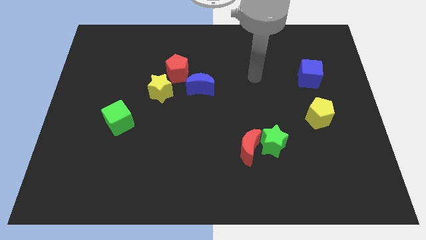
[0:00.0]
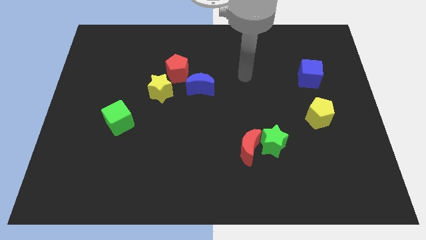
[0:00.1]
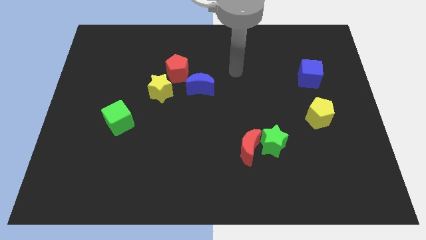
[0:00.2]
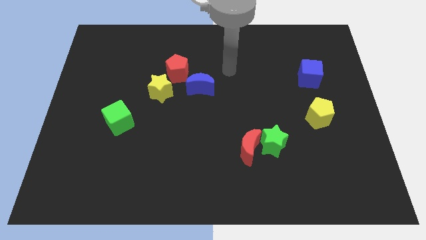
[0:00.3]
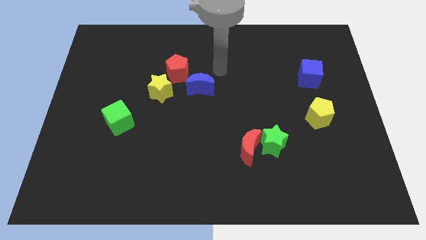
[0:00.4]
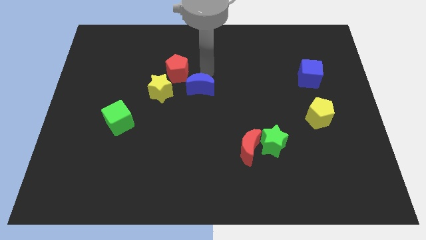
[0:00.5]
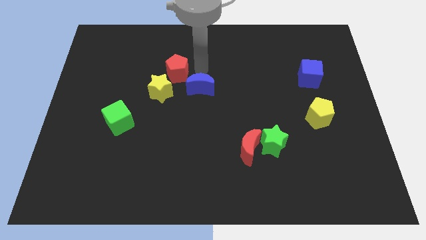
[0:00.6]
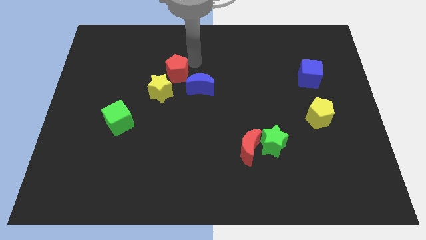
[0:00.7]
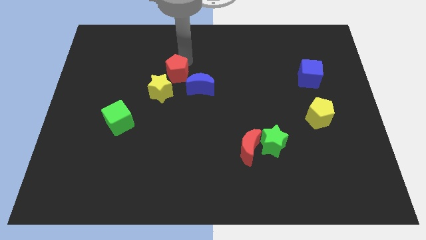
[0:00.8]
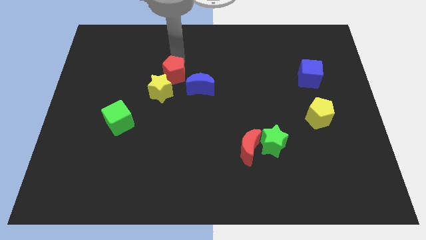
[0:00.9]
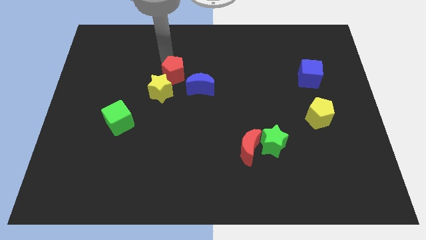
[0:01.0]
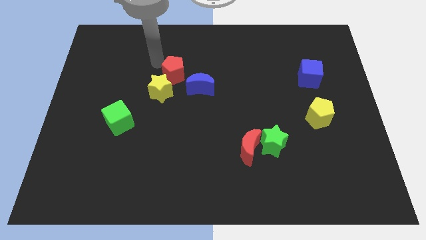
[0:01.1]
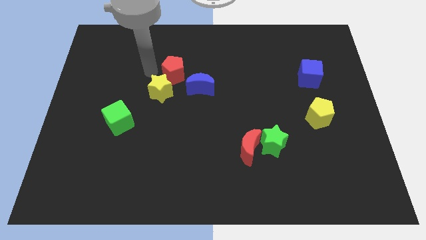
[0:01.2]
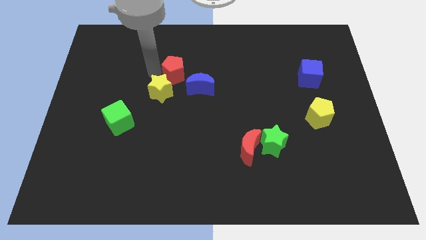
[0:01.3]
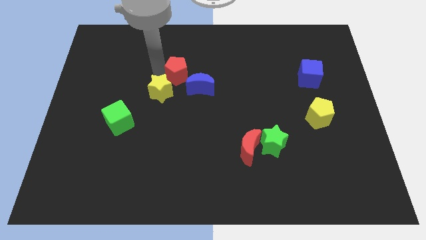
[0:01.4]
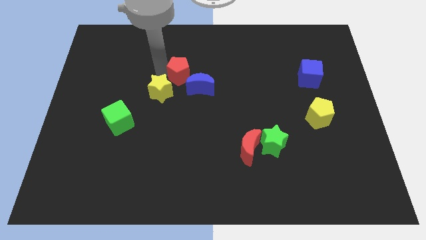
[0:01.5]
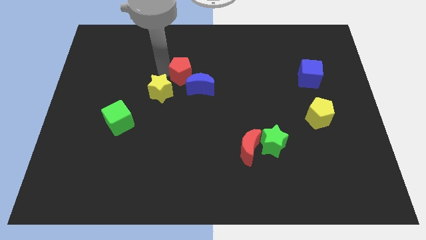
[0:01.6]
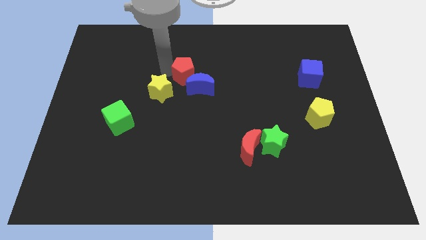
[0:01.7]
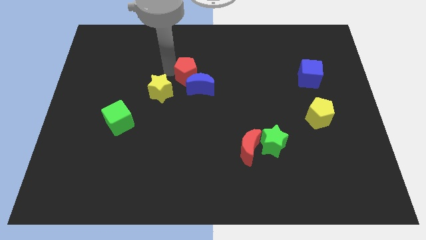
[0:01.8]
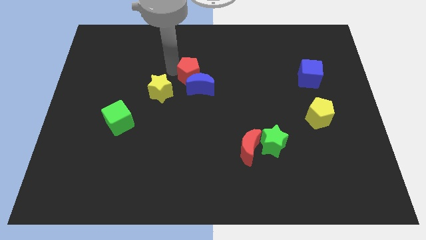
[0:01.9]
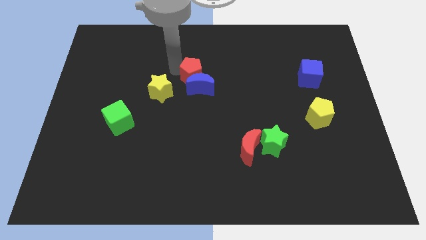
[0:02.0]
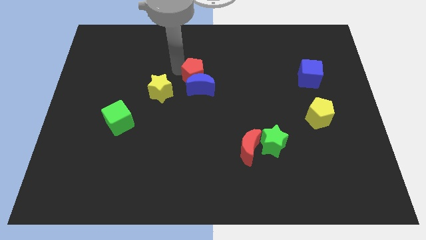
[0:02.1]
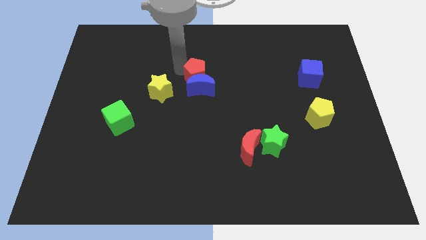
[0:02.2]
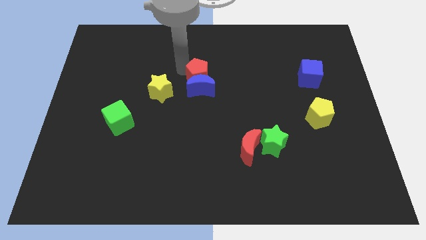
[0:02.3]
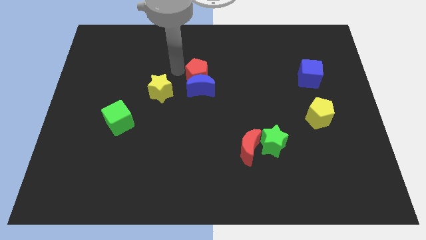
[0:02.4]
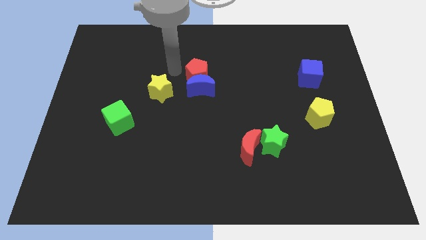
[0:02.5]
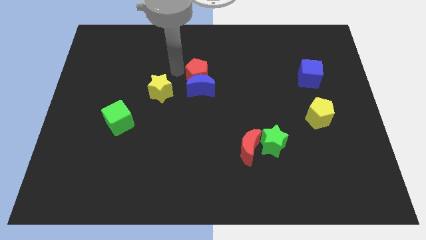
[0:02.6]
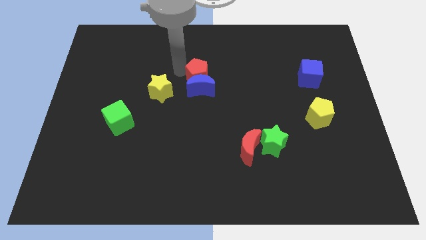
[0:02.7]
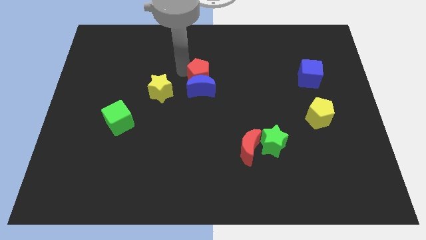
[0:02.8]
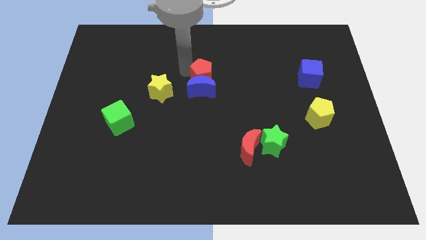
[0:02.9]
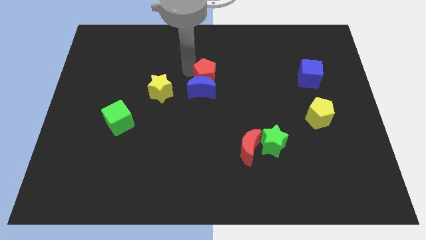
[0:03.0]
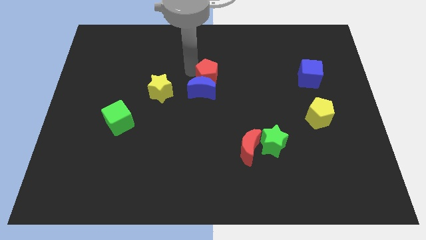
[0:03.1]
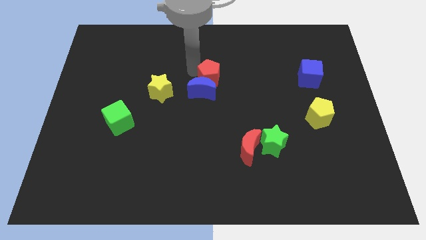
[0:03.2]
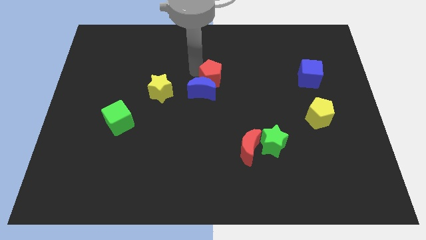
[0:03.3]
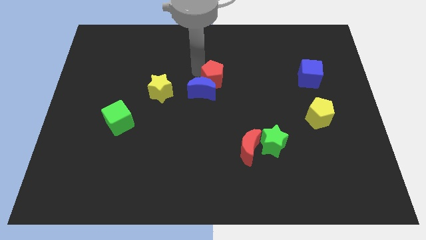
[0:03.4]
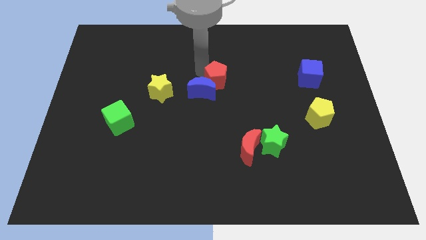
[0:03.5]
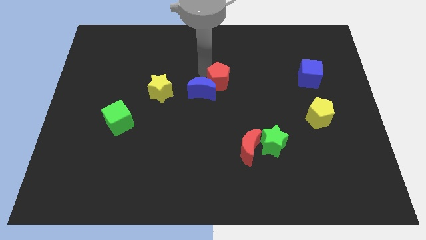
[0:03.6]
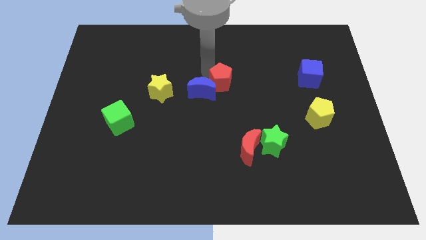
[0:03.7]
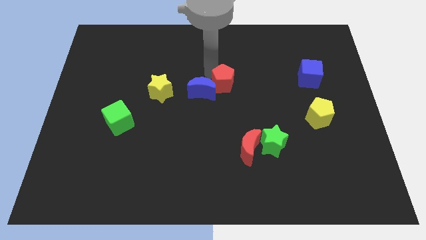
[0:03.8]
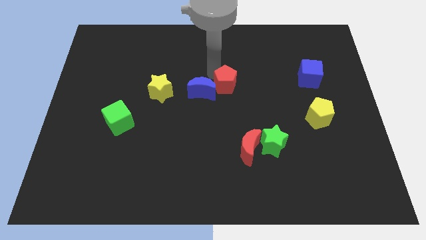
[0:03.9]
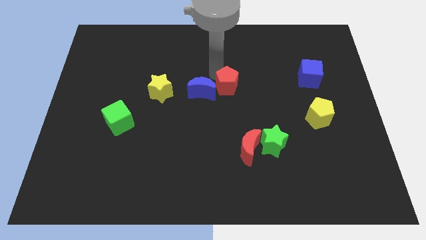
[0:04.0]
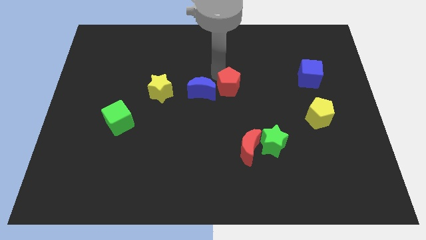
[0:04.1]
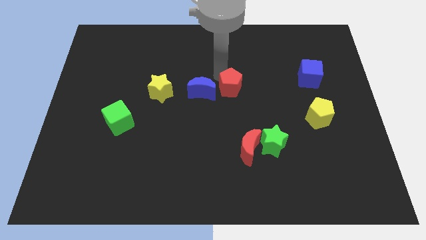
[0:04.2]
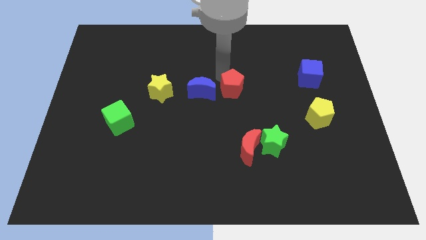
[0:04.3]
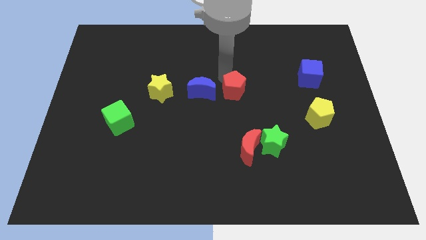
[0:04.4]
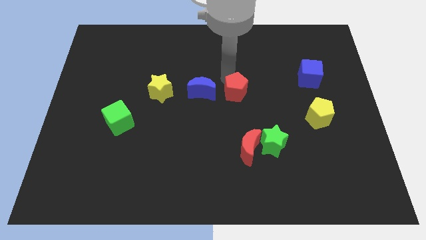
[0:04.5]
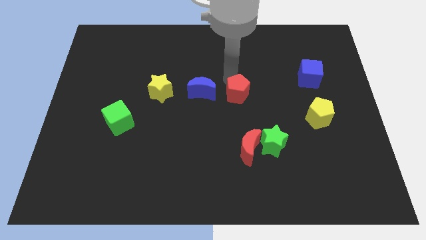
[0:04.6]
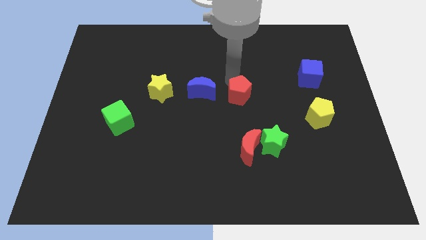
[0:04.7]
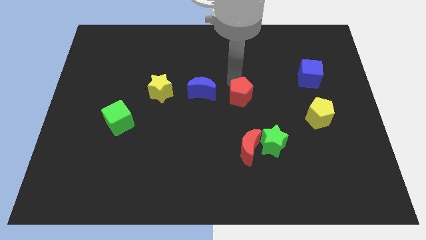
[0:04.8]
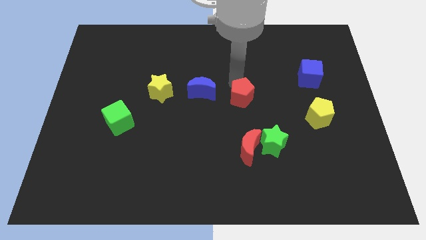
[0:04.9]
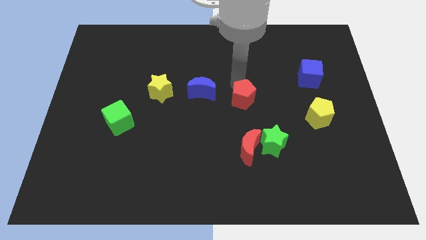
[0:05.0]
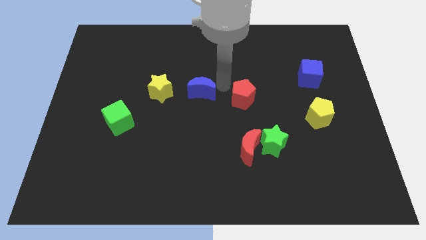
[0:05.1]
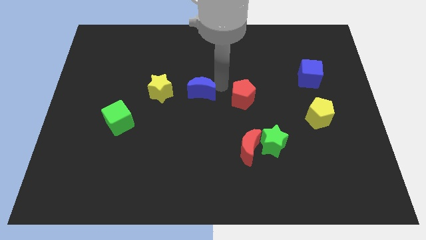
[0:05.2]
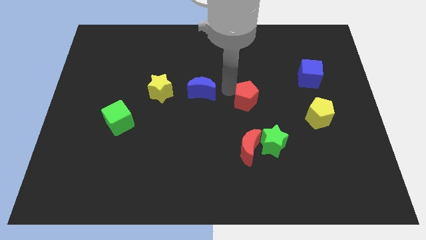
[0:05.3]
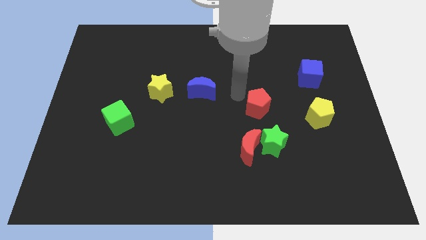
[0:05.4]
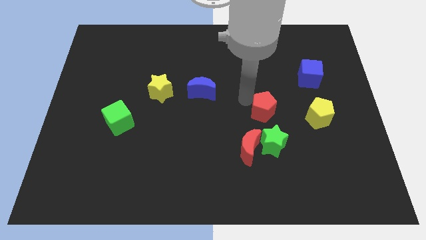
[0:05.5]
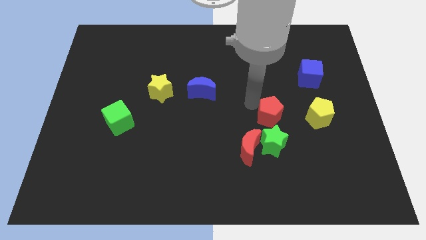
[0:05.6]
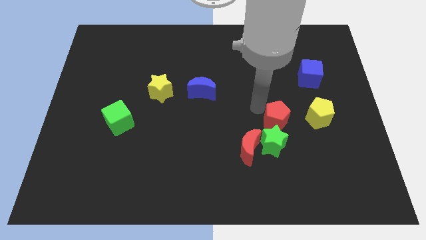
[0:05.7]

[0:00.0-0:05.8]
slide the red pentagon diagonally up and to the right of the green star

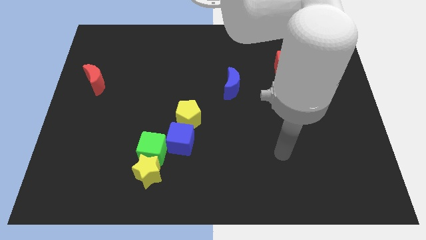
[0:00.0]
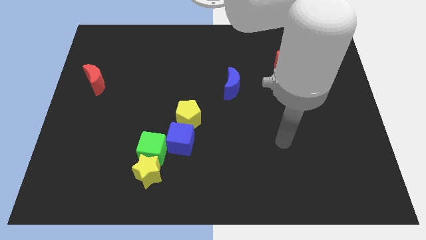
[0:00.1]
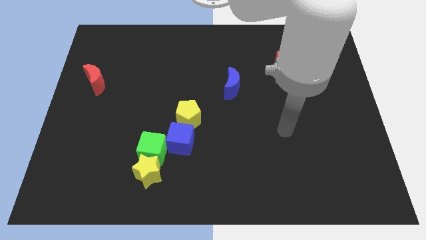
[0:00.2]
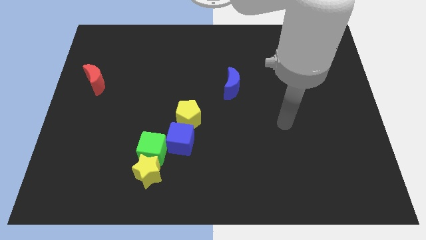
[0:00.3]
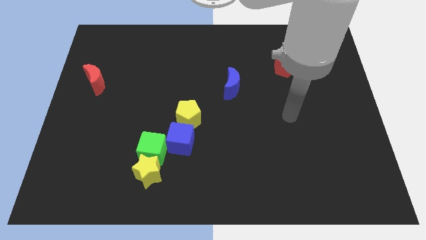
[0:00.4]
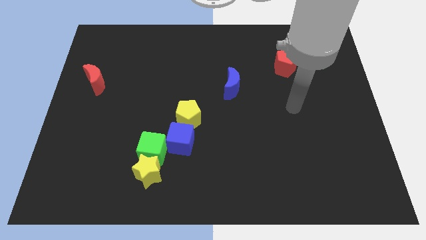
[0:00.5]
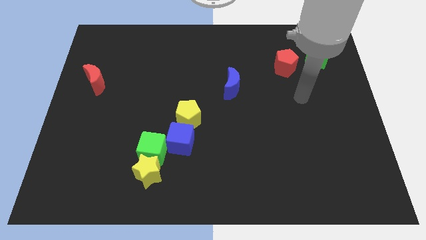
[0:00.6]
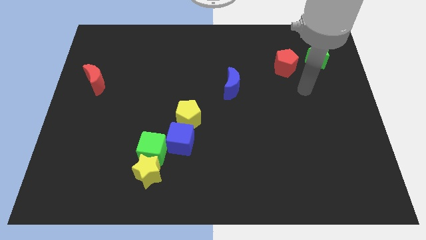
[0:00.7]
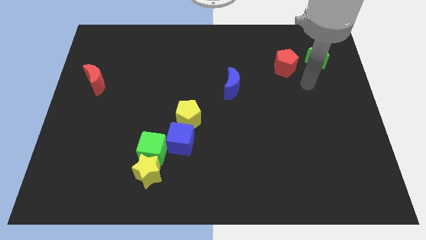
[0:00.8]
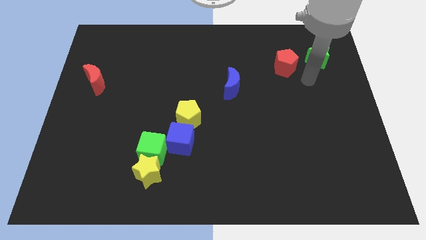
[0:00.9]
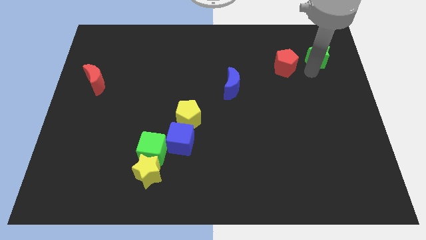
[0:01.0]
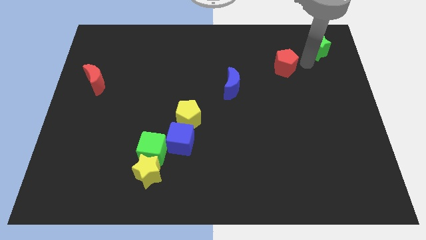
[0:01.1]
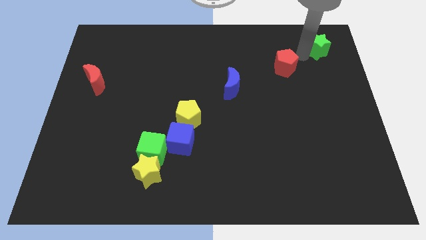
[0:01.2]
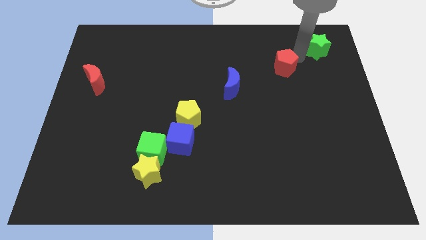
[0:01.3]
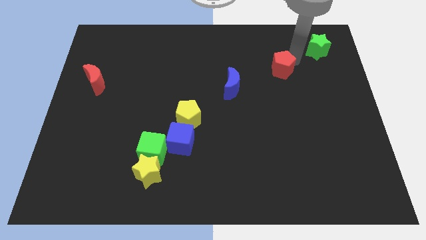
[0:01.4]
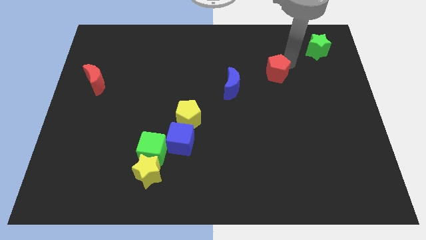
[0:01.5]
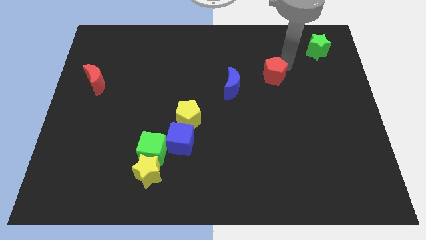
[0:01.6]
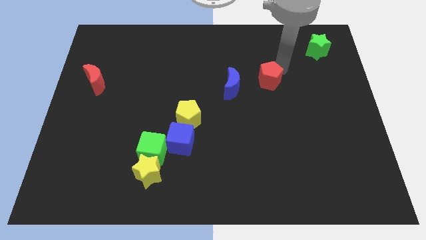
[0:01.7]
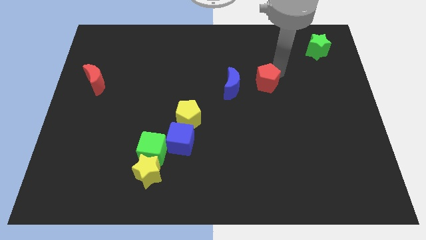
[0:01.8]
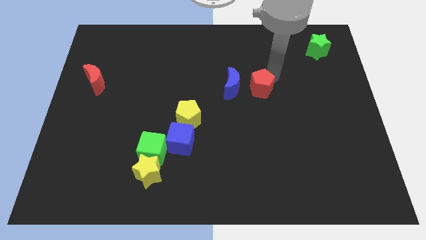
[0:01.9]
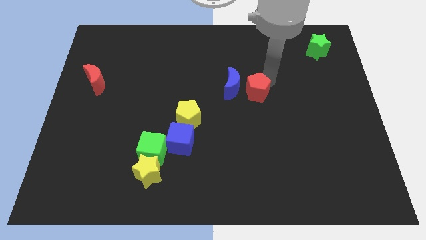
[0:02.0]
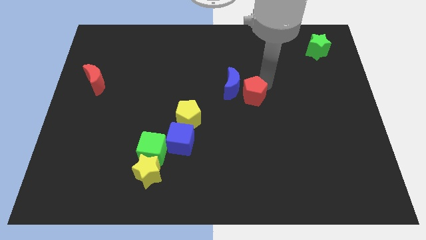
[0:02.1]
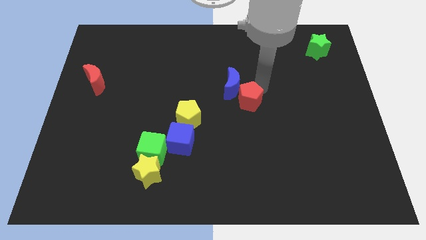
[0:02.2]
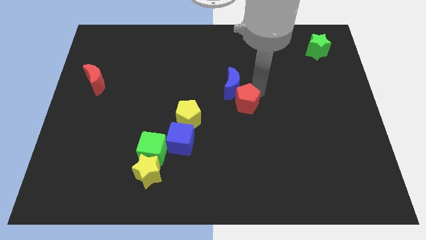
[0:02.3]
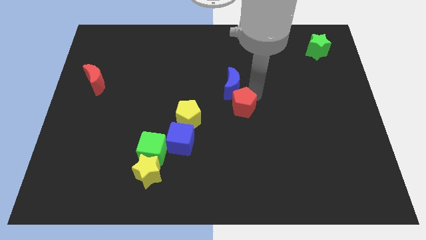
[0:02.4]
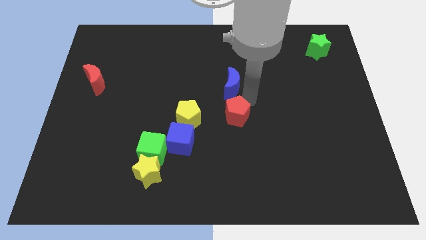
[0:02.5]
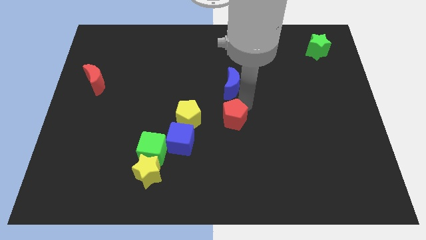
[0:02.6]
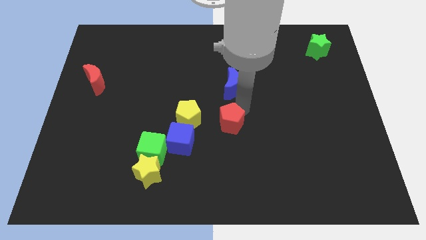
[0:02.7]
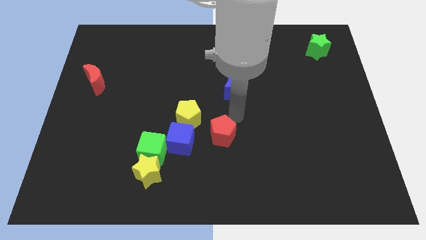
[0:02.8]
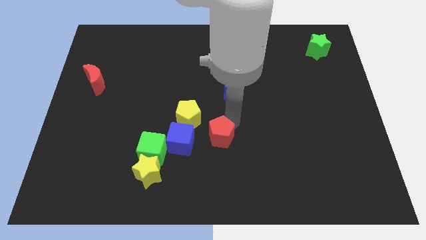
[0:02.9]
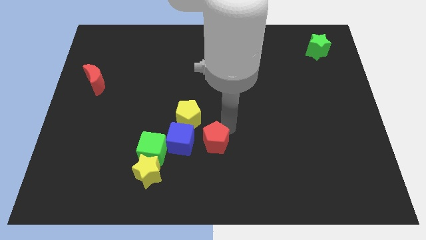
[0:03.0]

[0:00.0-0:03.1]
put the red pentagon right of the green cube
